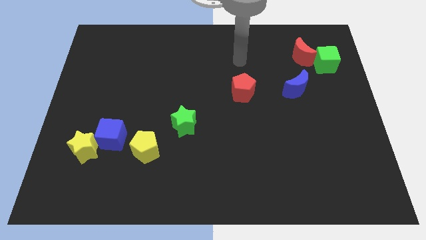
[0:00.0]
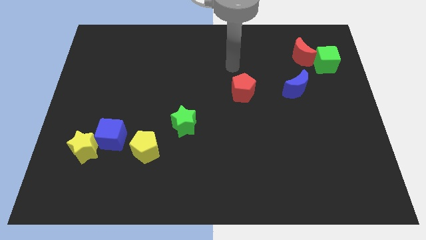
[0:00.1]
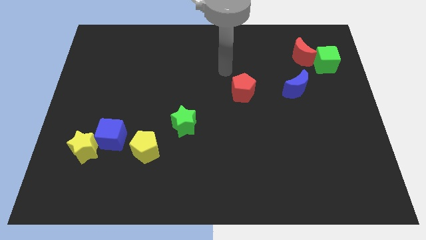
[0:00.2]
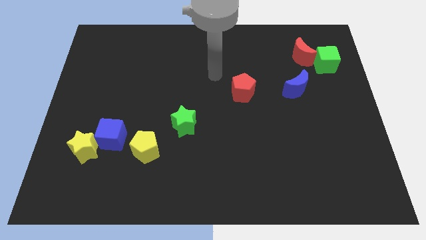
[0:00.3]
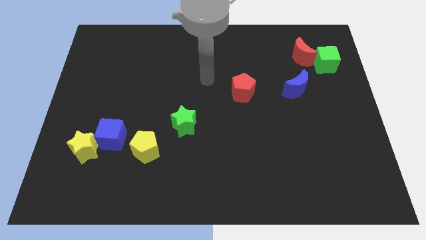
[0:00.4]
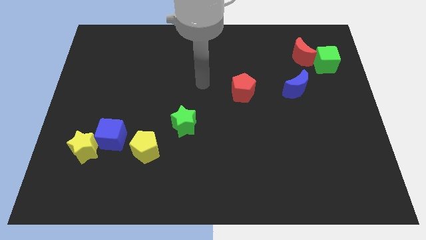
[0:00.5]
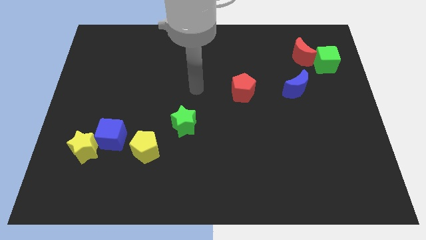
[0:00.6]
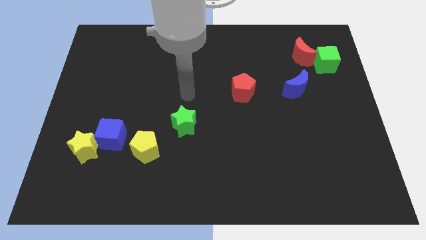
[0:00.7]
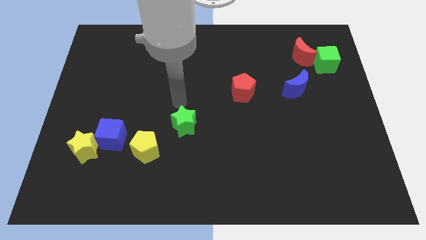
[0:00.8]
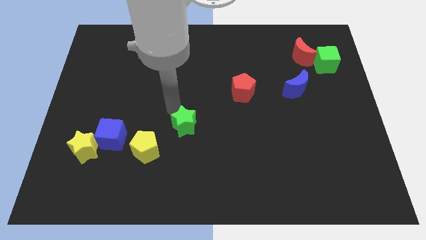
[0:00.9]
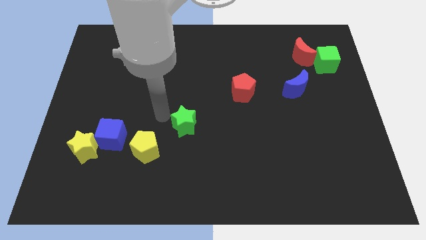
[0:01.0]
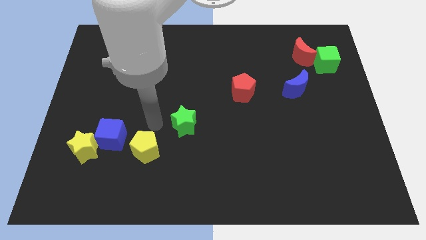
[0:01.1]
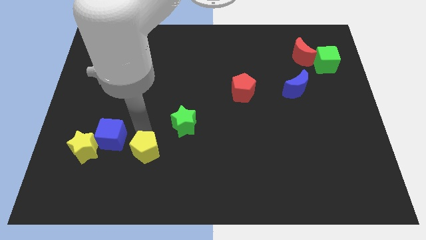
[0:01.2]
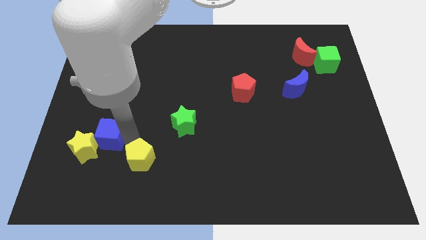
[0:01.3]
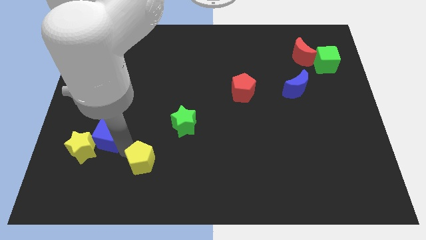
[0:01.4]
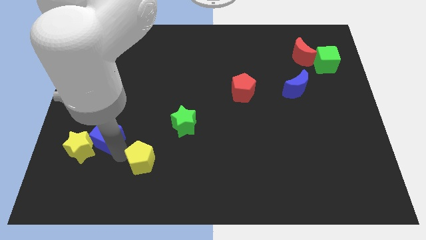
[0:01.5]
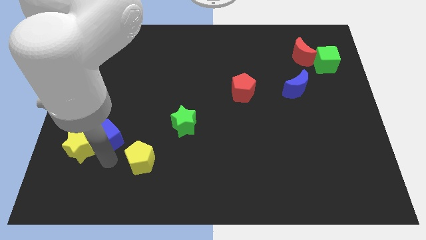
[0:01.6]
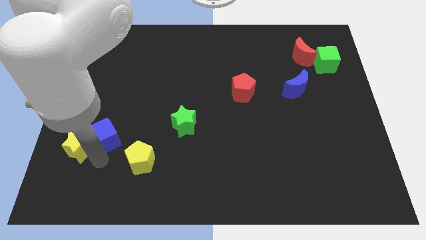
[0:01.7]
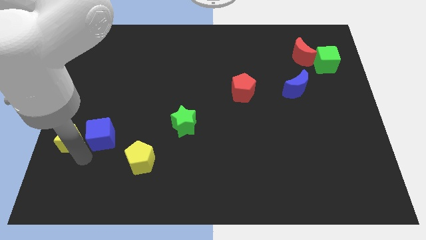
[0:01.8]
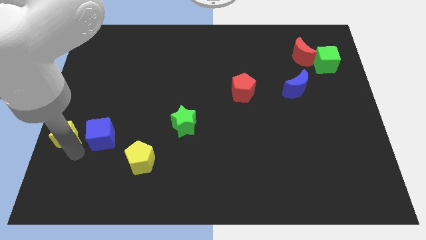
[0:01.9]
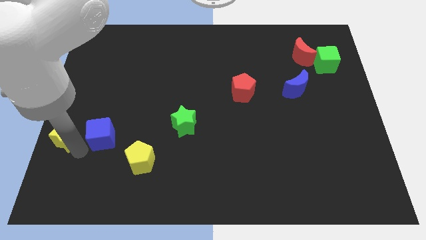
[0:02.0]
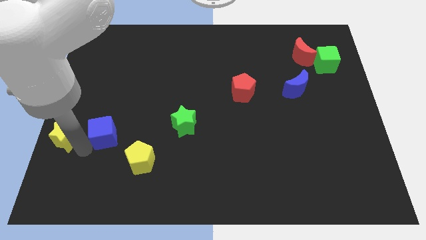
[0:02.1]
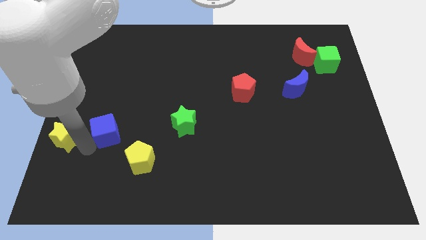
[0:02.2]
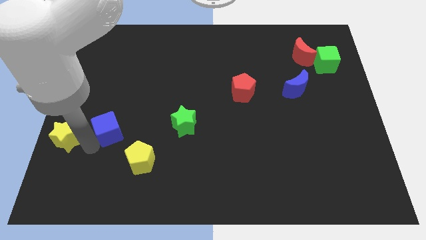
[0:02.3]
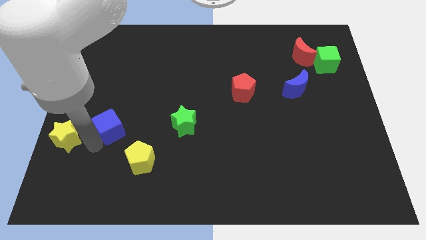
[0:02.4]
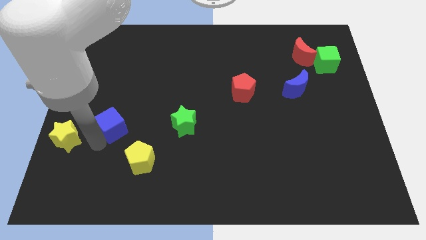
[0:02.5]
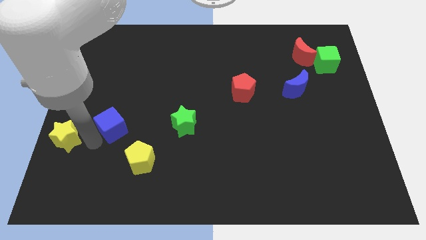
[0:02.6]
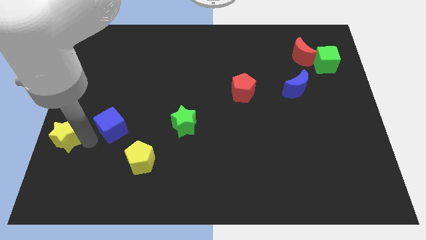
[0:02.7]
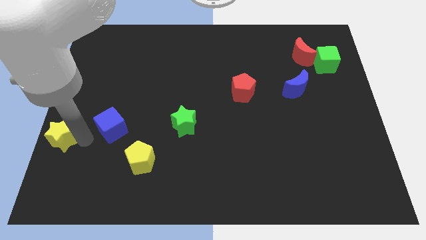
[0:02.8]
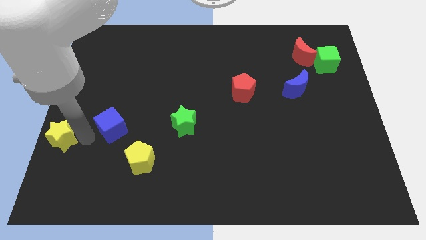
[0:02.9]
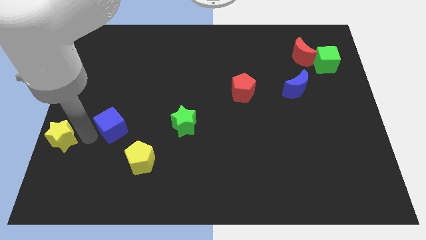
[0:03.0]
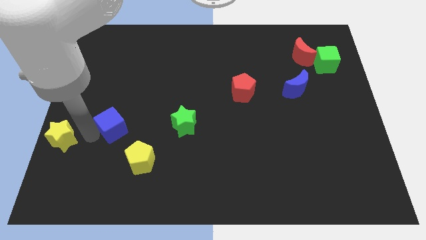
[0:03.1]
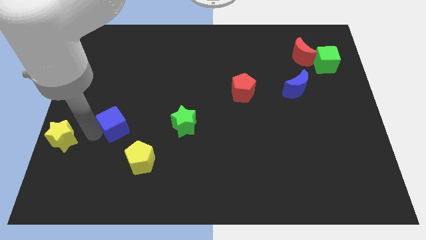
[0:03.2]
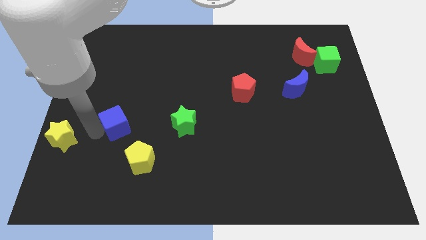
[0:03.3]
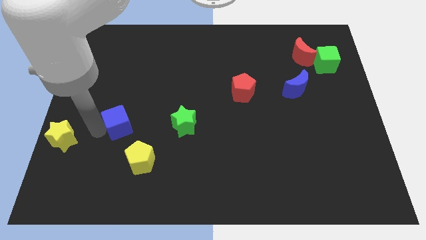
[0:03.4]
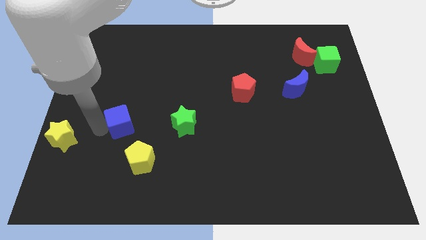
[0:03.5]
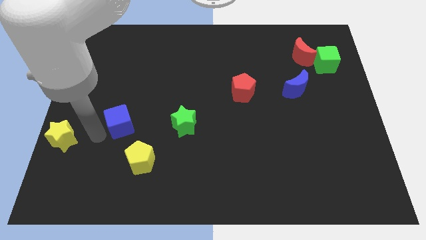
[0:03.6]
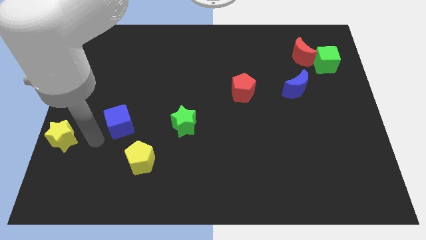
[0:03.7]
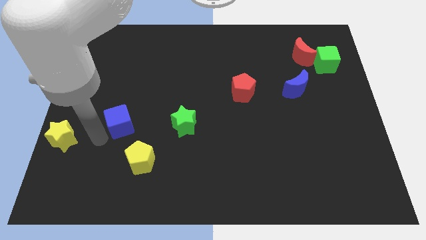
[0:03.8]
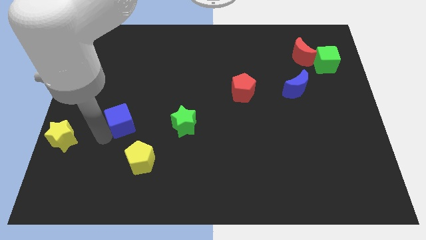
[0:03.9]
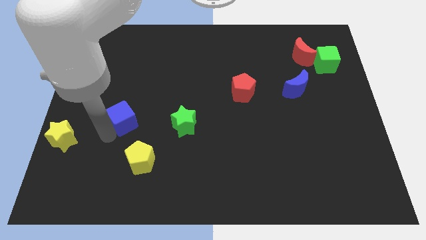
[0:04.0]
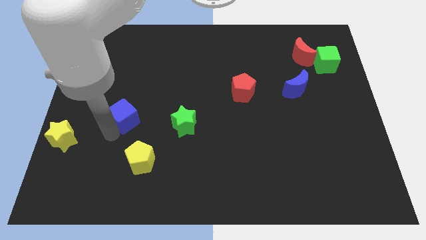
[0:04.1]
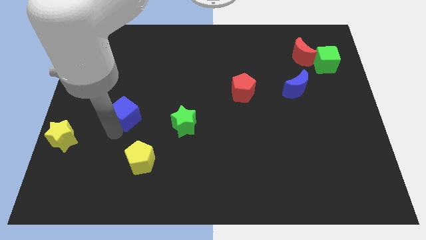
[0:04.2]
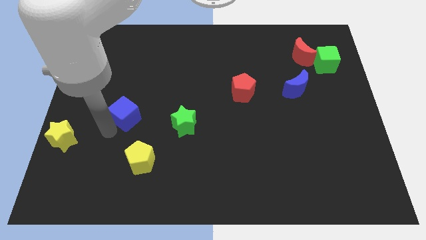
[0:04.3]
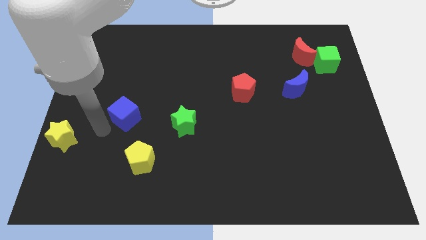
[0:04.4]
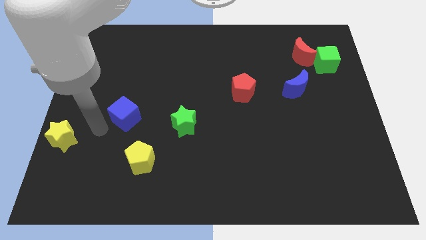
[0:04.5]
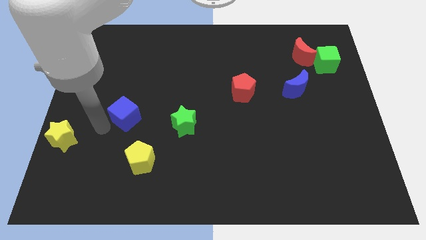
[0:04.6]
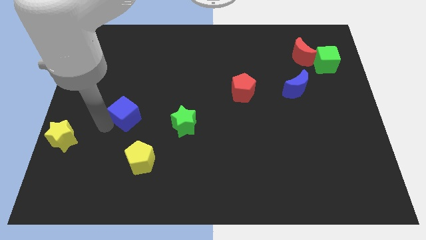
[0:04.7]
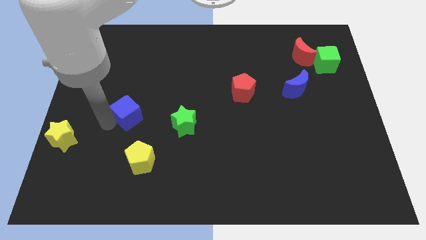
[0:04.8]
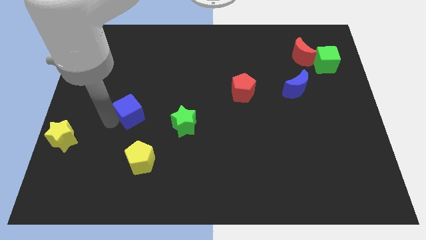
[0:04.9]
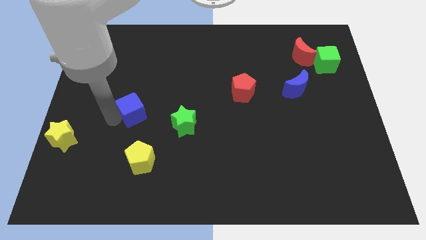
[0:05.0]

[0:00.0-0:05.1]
slightly slide the blue cube up and right

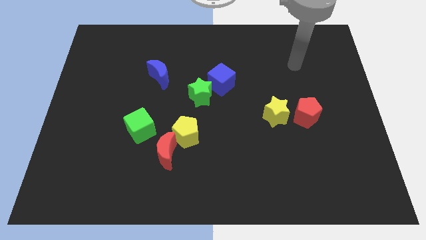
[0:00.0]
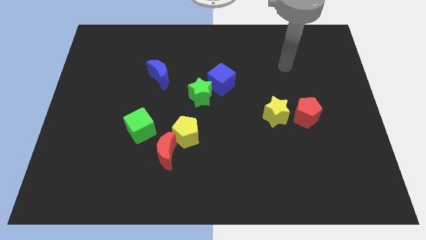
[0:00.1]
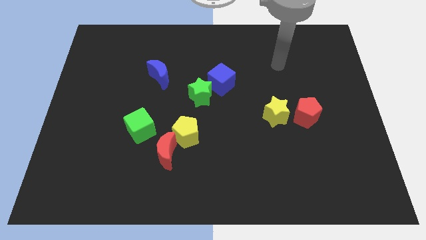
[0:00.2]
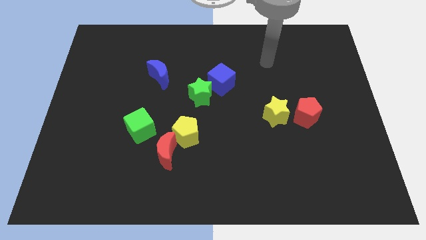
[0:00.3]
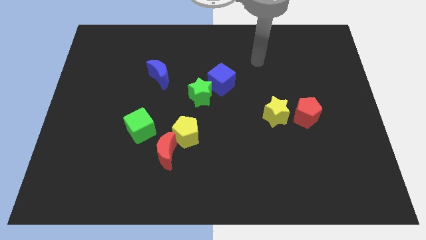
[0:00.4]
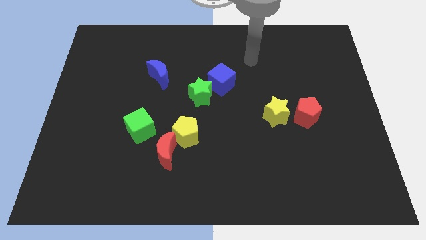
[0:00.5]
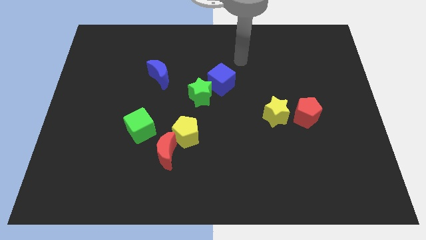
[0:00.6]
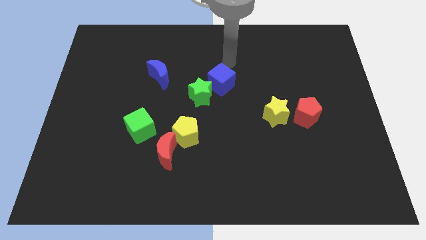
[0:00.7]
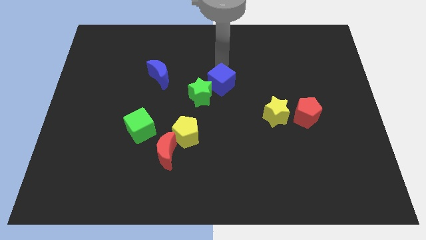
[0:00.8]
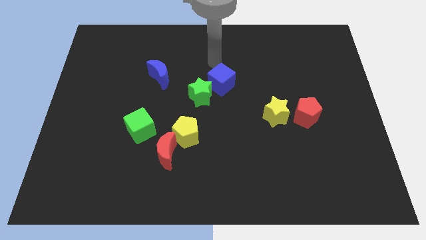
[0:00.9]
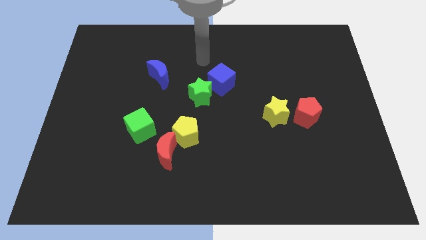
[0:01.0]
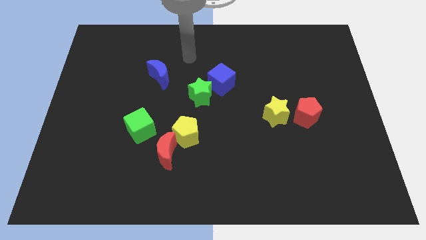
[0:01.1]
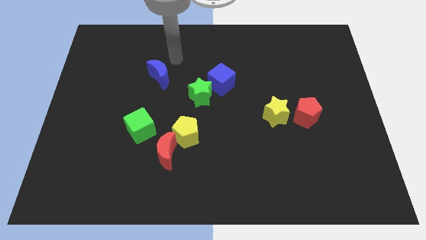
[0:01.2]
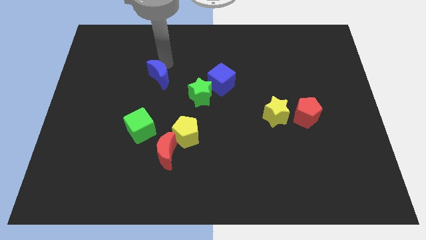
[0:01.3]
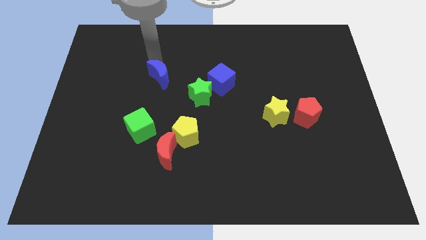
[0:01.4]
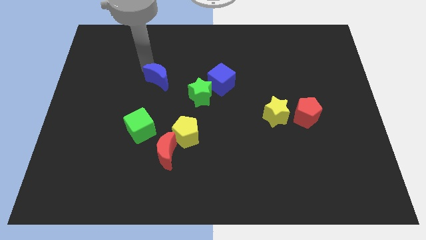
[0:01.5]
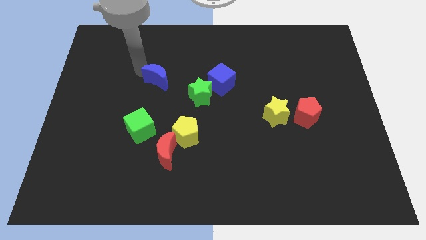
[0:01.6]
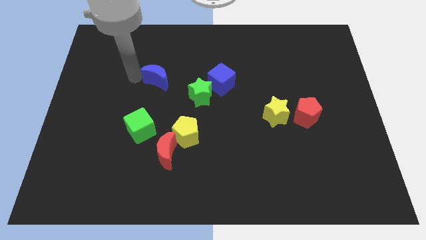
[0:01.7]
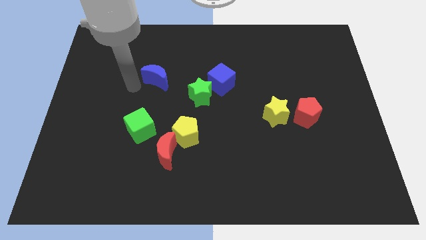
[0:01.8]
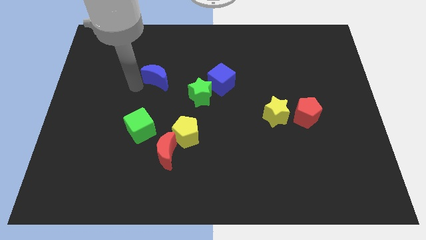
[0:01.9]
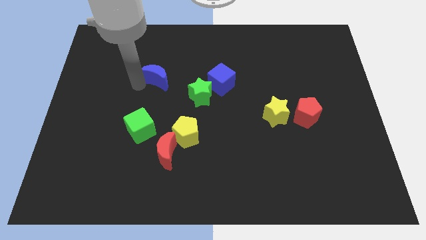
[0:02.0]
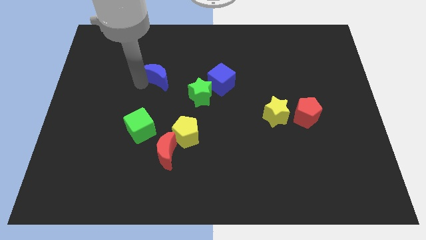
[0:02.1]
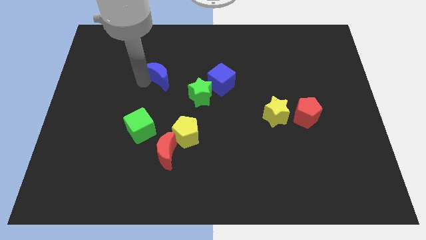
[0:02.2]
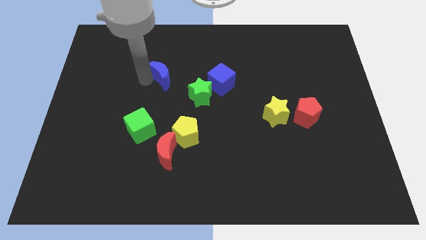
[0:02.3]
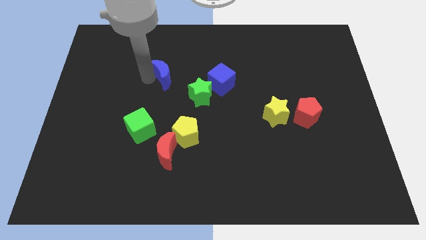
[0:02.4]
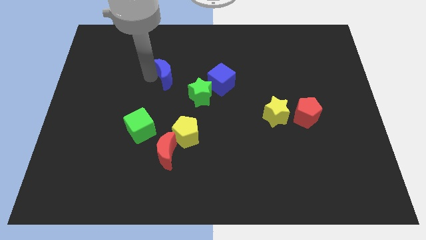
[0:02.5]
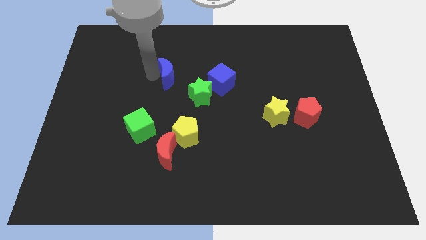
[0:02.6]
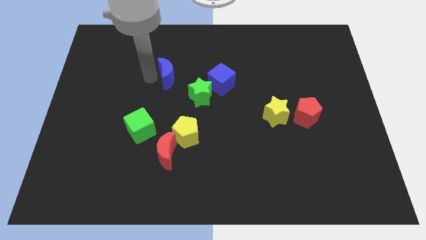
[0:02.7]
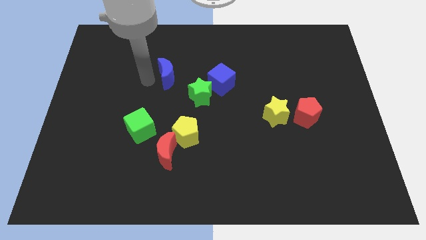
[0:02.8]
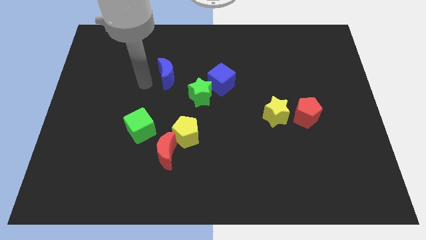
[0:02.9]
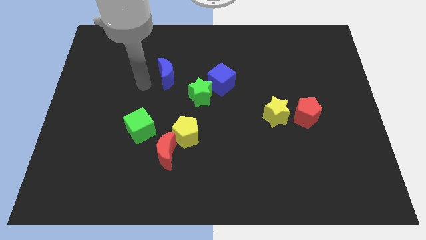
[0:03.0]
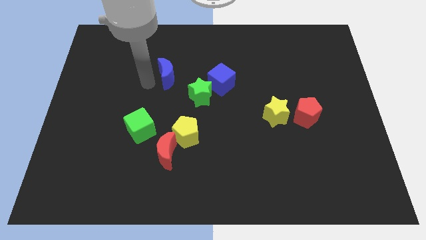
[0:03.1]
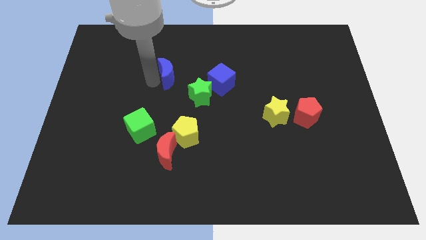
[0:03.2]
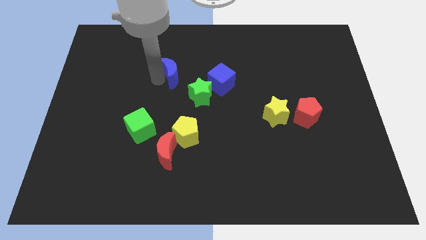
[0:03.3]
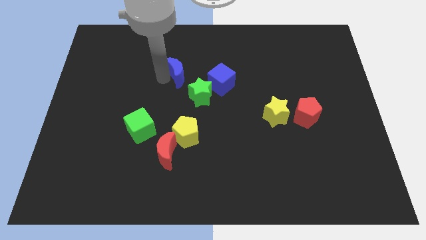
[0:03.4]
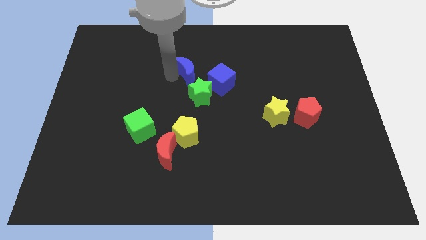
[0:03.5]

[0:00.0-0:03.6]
push the blue moon a bit to the right
